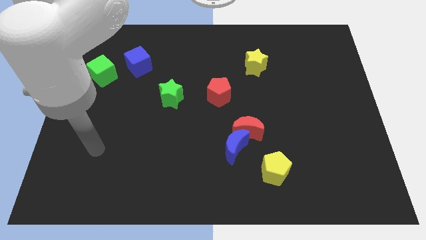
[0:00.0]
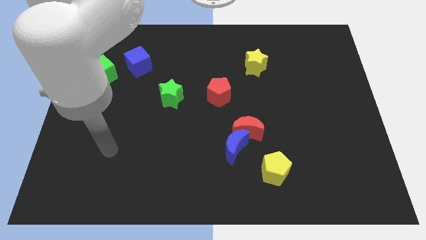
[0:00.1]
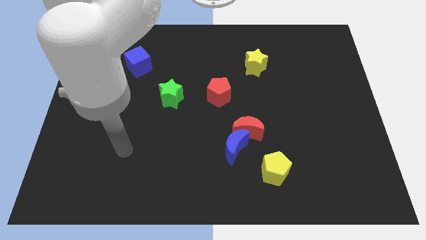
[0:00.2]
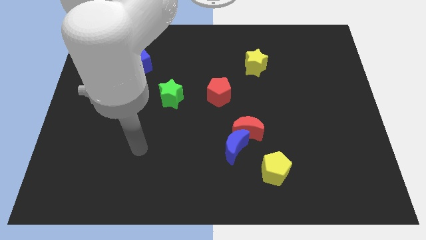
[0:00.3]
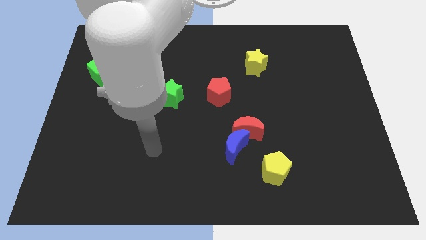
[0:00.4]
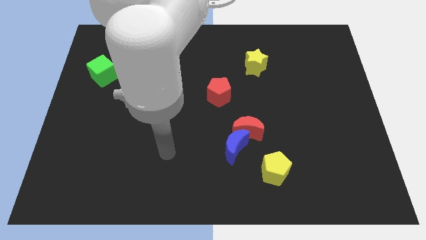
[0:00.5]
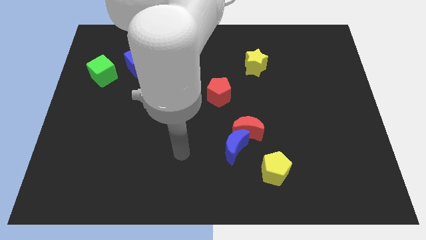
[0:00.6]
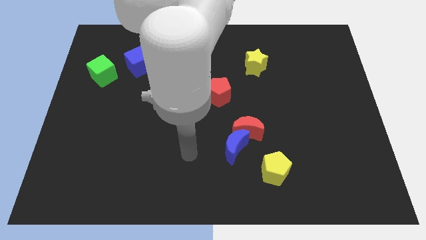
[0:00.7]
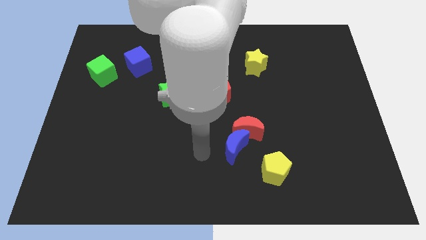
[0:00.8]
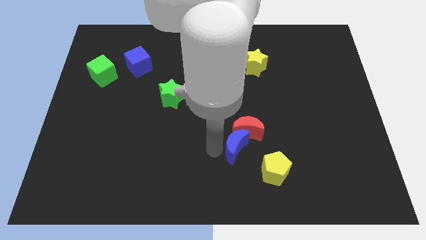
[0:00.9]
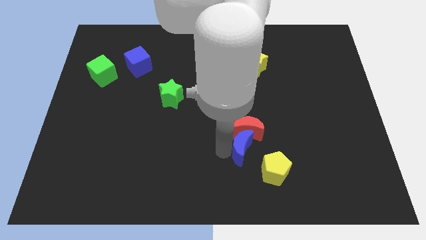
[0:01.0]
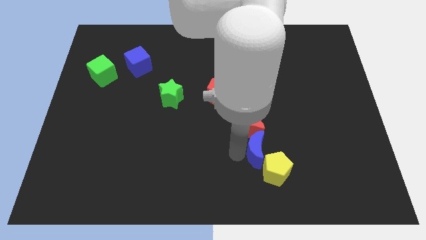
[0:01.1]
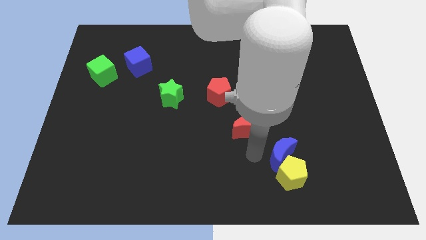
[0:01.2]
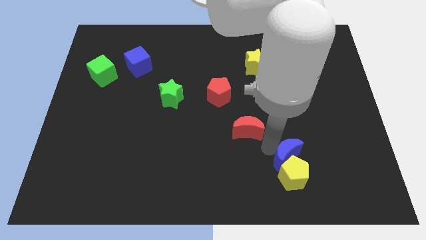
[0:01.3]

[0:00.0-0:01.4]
move the red moon away from the blue moon

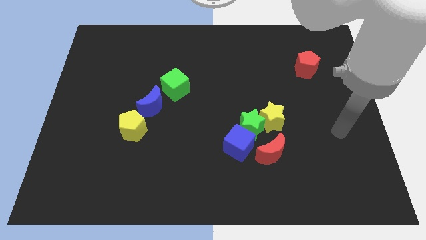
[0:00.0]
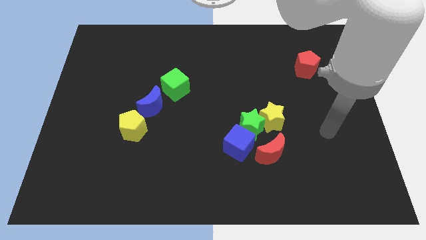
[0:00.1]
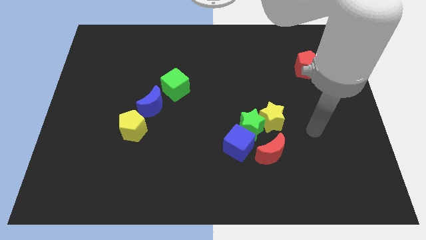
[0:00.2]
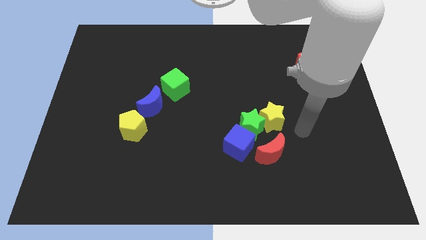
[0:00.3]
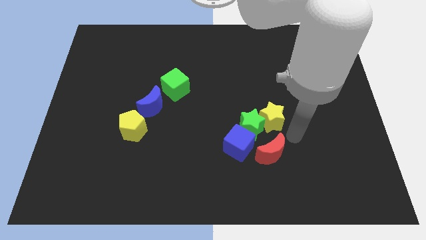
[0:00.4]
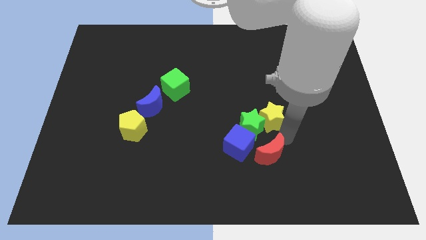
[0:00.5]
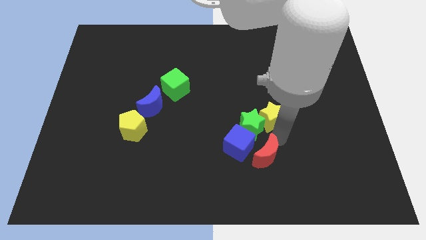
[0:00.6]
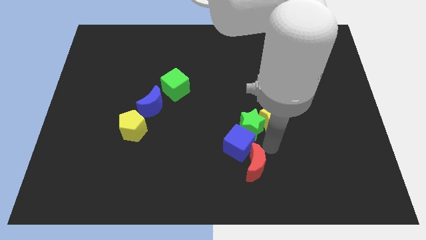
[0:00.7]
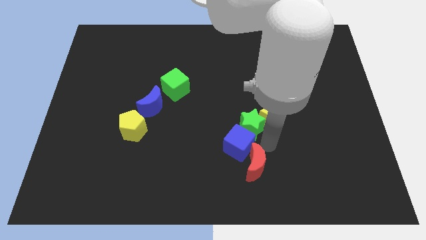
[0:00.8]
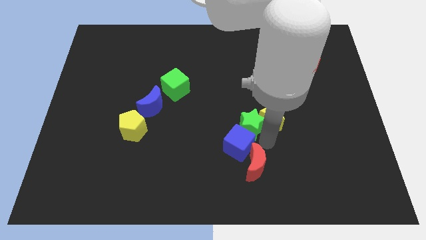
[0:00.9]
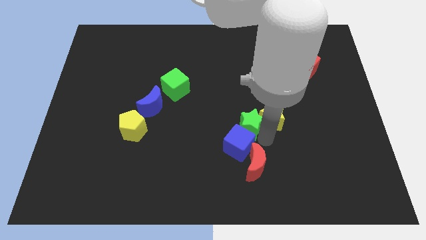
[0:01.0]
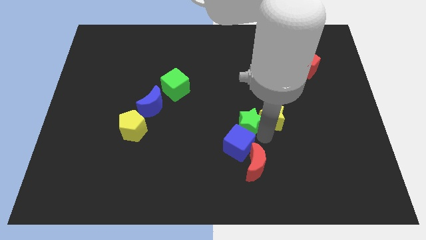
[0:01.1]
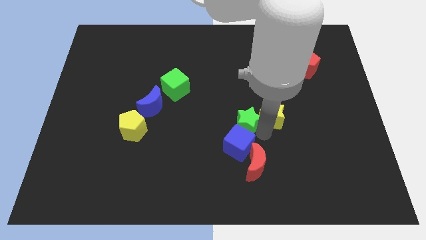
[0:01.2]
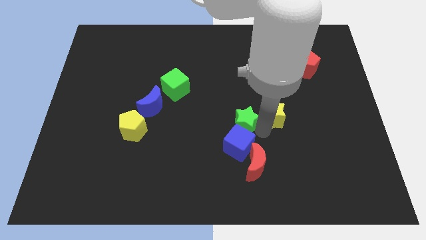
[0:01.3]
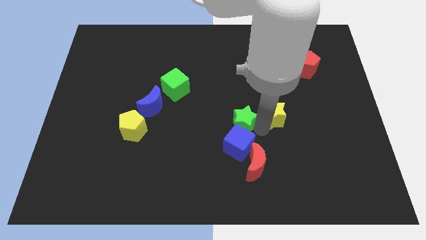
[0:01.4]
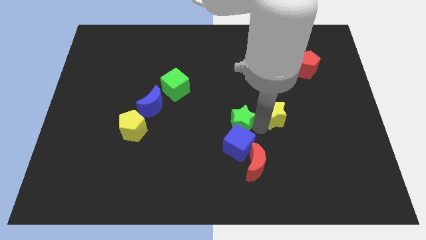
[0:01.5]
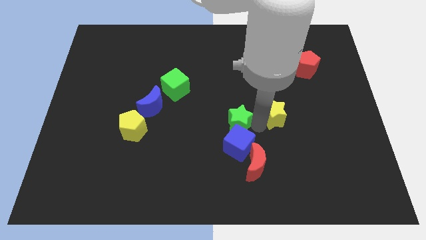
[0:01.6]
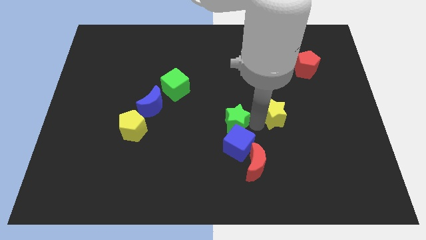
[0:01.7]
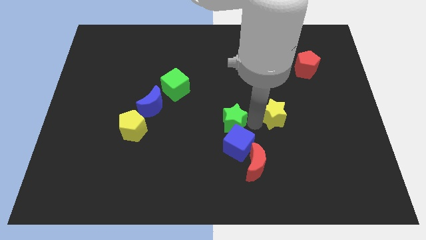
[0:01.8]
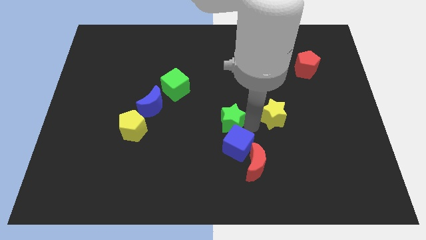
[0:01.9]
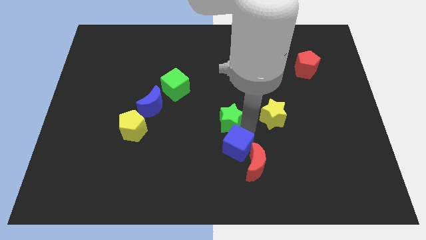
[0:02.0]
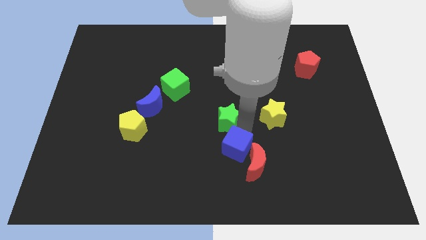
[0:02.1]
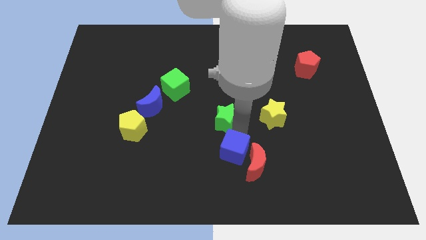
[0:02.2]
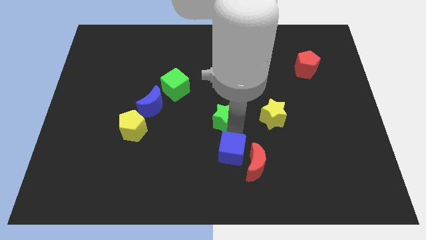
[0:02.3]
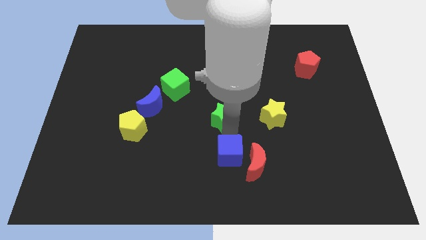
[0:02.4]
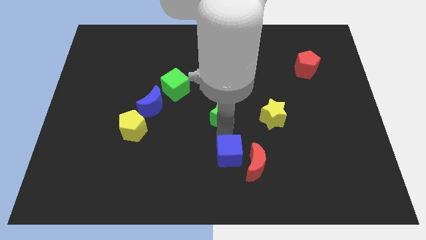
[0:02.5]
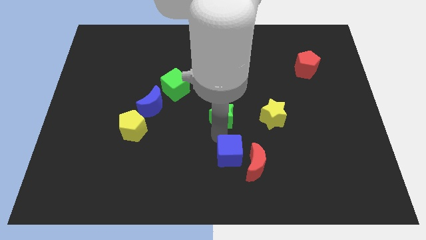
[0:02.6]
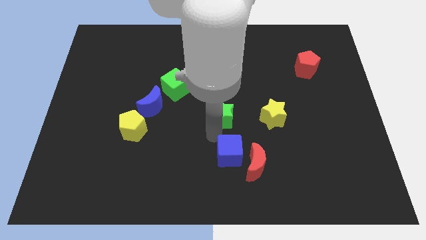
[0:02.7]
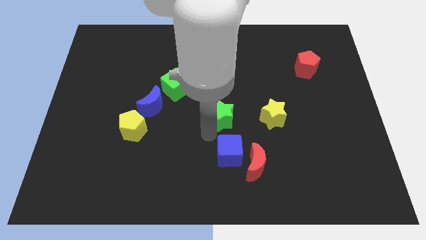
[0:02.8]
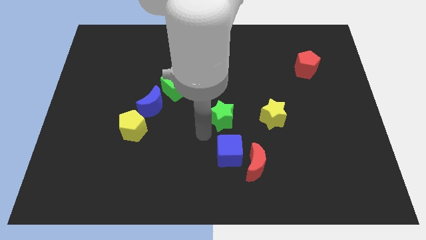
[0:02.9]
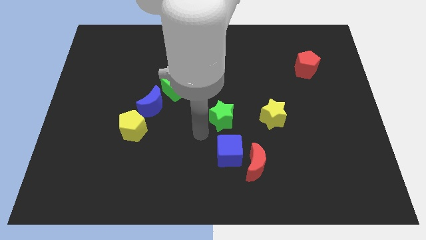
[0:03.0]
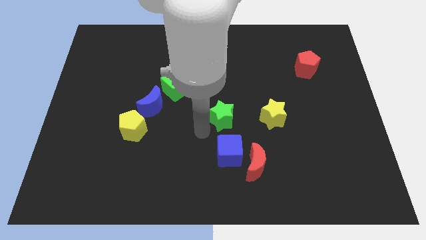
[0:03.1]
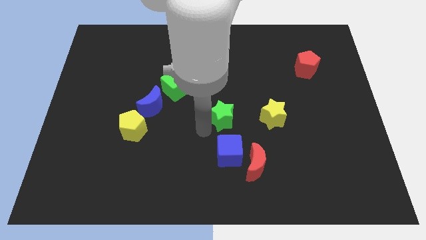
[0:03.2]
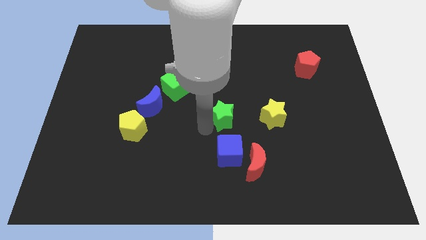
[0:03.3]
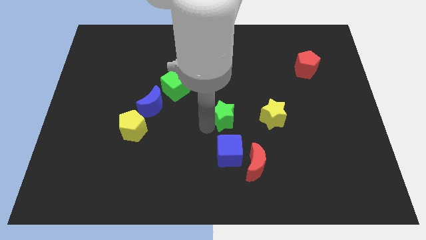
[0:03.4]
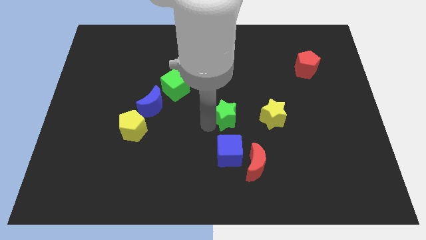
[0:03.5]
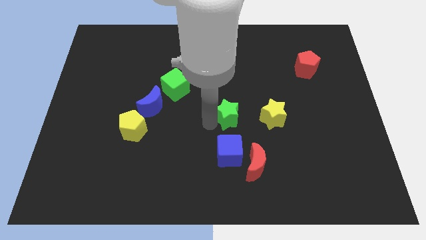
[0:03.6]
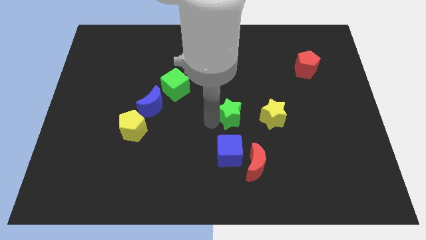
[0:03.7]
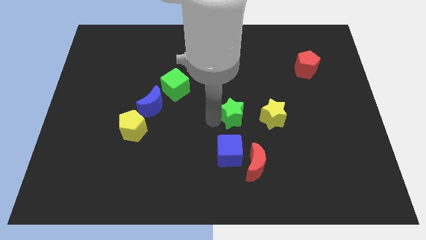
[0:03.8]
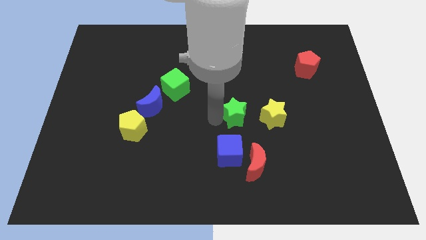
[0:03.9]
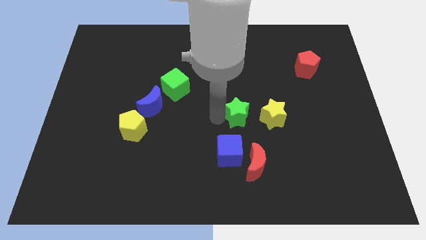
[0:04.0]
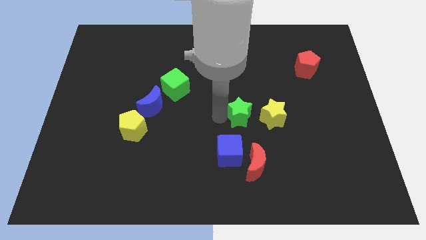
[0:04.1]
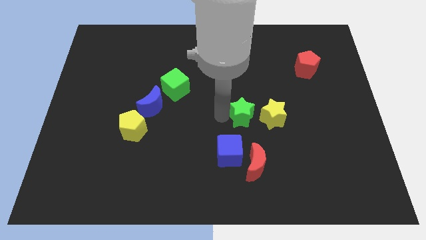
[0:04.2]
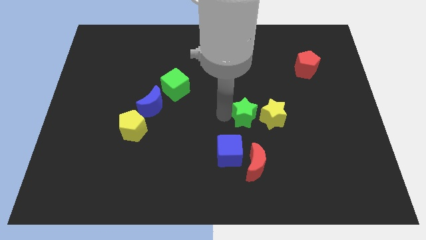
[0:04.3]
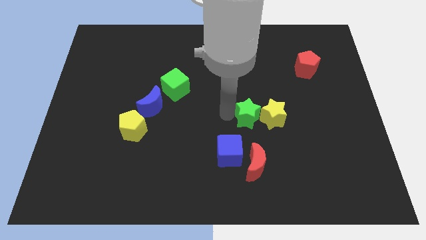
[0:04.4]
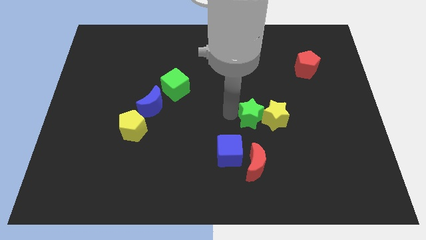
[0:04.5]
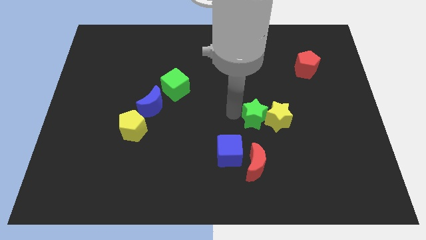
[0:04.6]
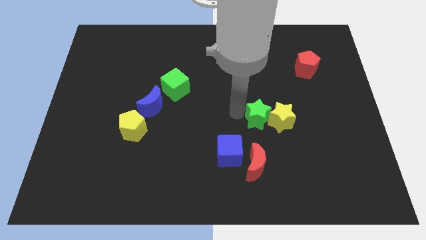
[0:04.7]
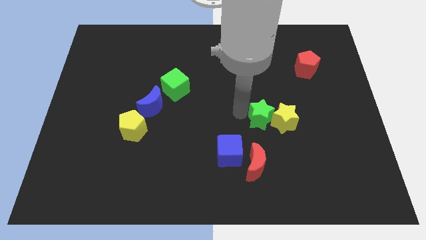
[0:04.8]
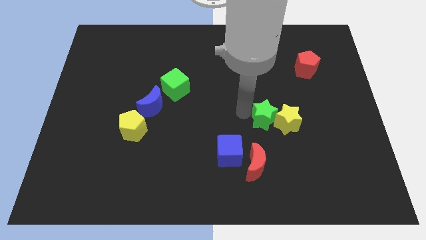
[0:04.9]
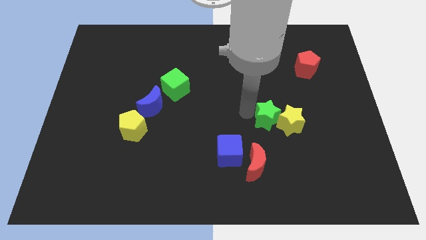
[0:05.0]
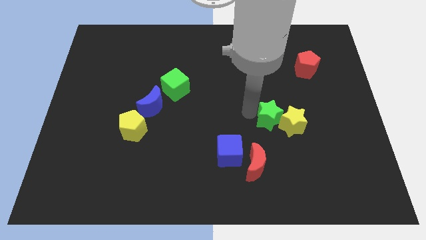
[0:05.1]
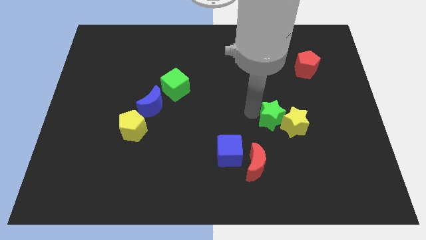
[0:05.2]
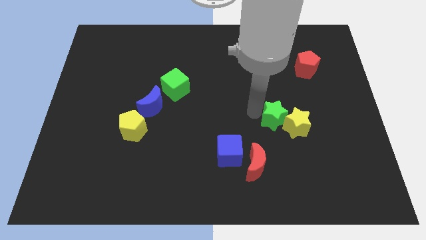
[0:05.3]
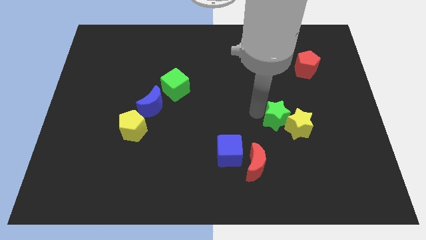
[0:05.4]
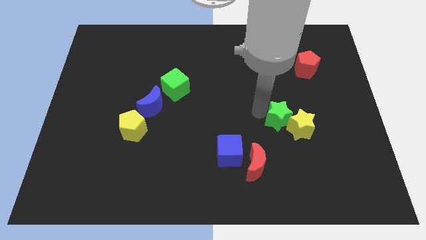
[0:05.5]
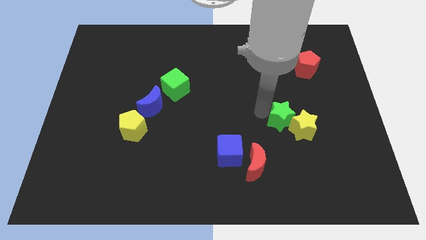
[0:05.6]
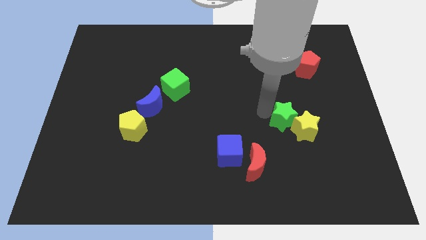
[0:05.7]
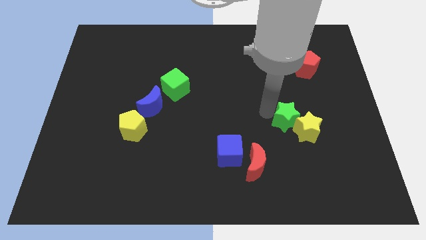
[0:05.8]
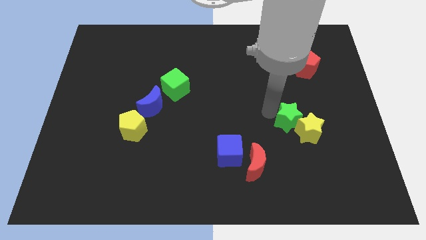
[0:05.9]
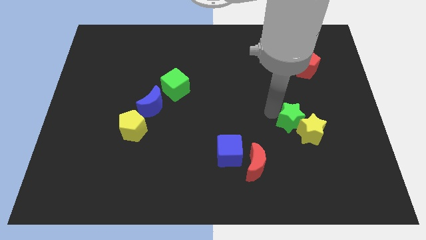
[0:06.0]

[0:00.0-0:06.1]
pull the green star apart from the yellow star, blue cube, and red moon

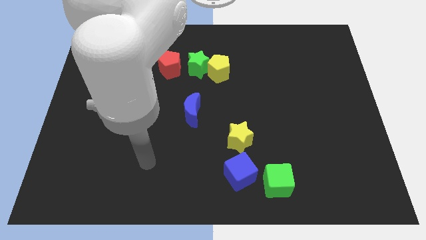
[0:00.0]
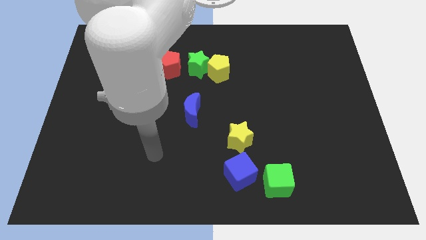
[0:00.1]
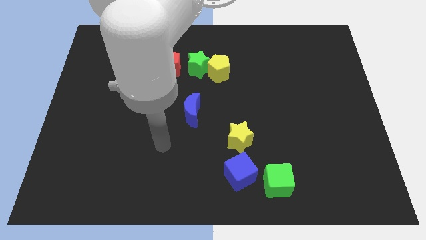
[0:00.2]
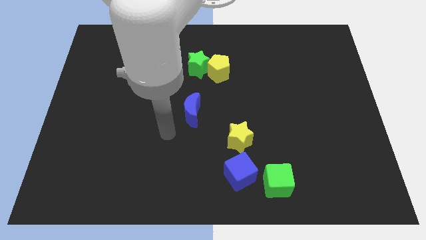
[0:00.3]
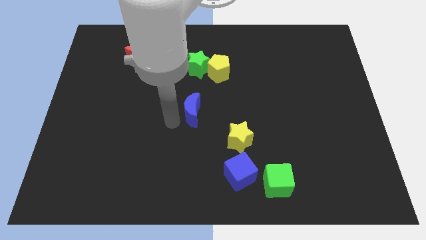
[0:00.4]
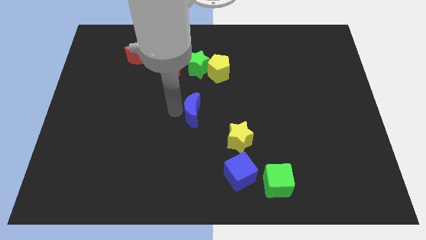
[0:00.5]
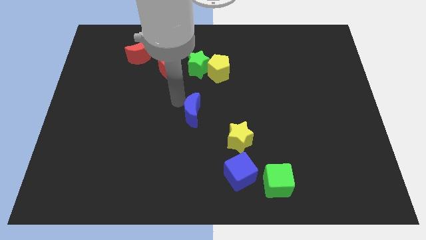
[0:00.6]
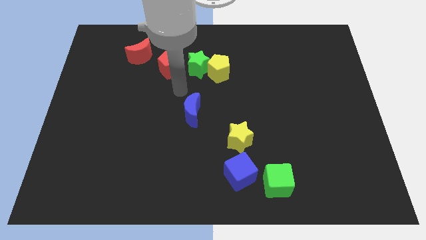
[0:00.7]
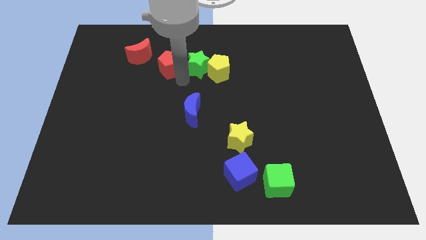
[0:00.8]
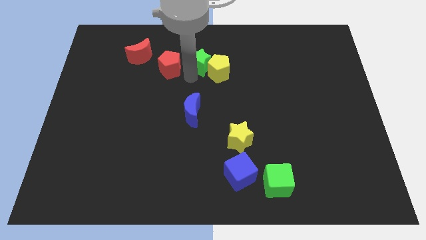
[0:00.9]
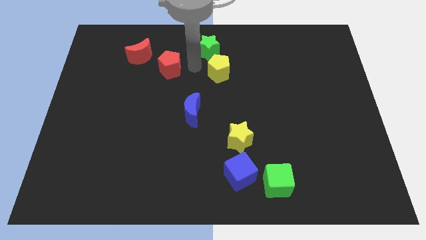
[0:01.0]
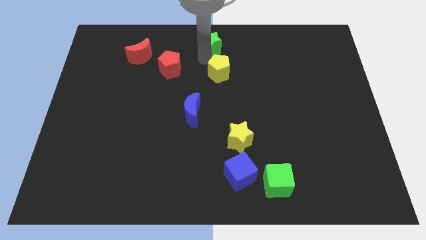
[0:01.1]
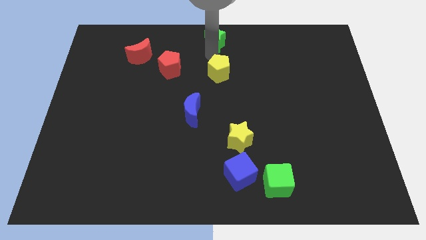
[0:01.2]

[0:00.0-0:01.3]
pull the yellow pentagon apart from the green star

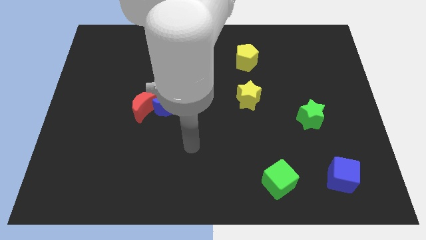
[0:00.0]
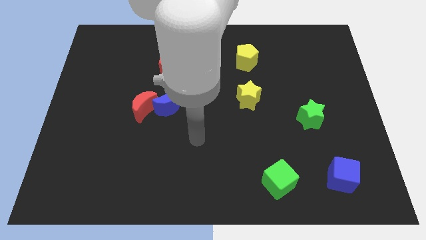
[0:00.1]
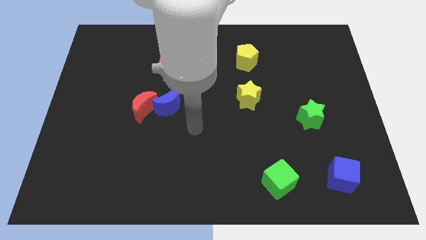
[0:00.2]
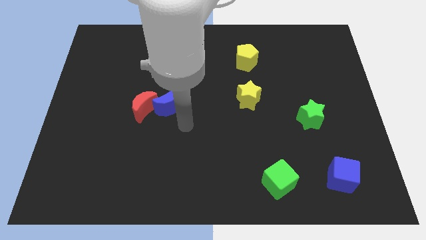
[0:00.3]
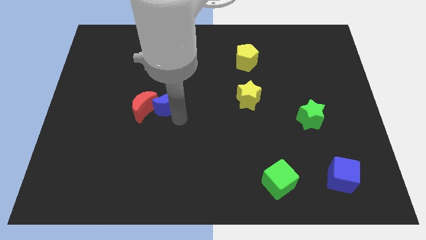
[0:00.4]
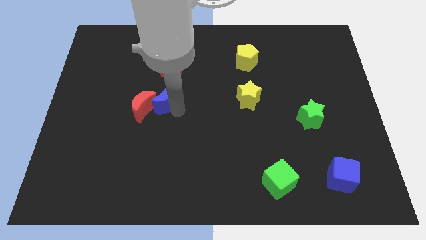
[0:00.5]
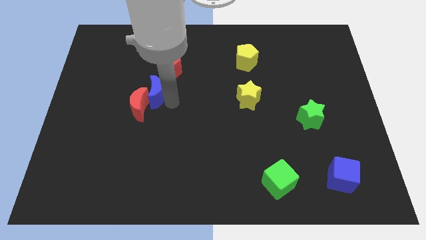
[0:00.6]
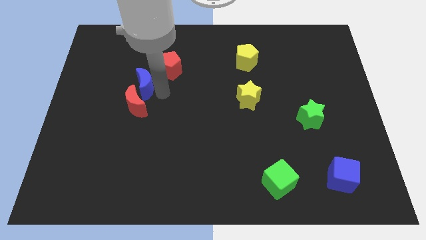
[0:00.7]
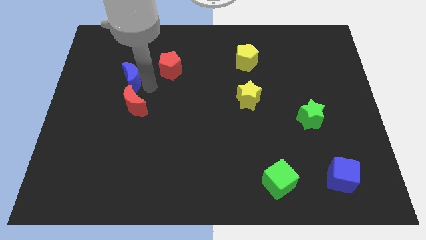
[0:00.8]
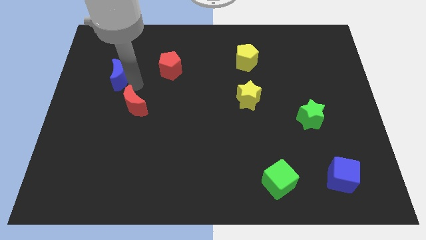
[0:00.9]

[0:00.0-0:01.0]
separate the red moon from the blue moon
